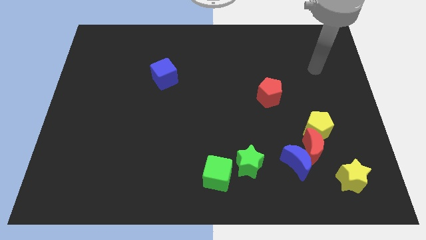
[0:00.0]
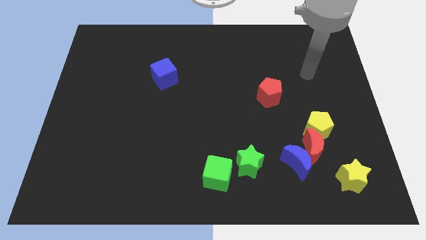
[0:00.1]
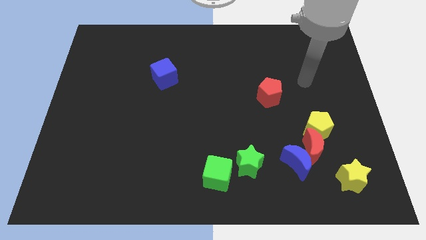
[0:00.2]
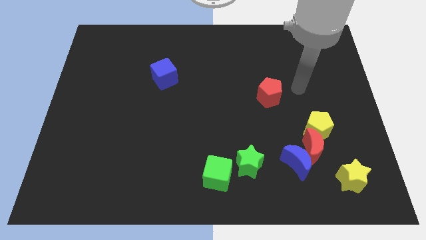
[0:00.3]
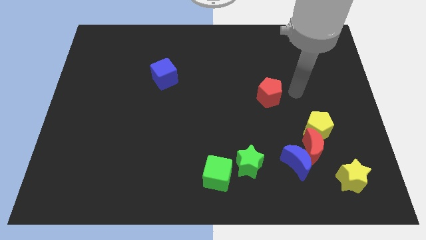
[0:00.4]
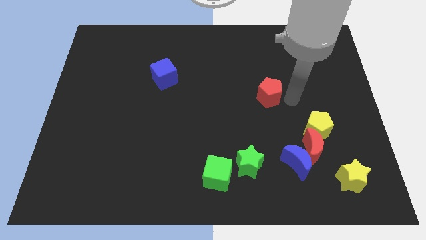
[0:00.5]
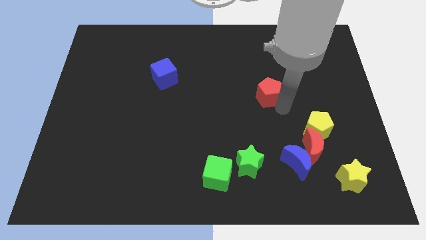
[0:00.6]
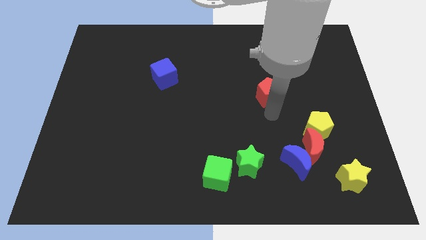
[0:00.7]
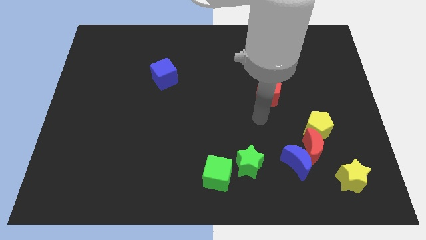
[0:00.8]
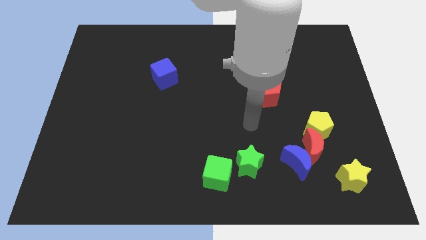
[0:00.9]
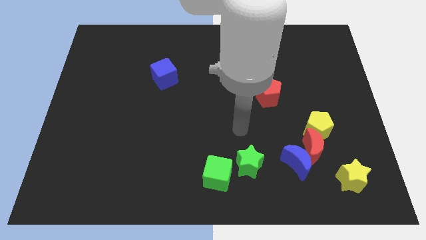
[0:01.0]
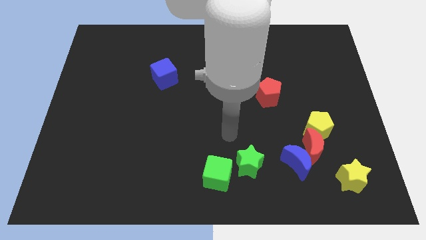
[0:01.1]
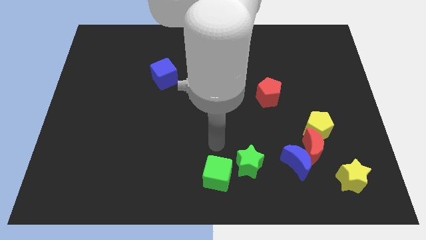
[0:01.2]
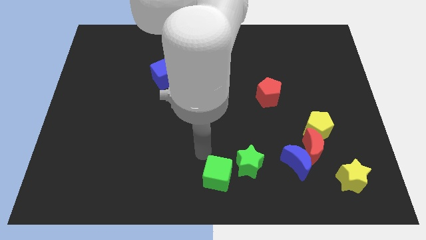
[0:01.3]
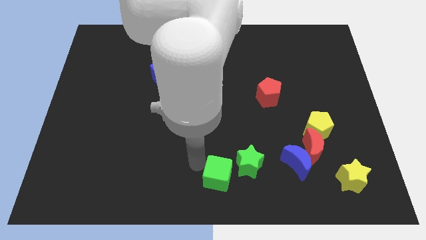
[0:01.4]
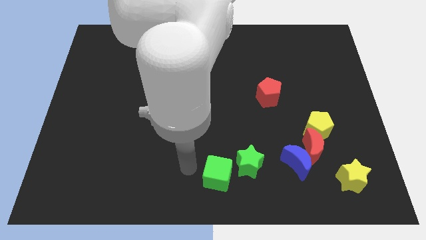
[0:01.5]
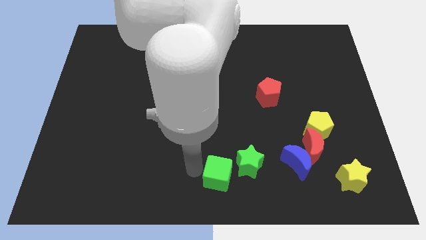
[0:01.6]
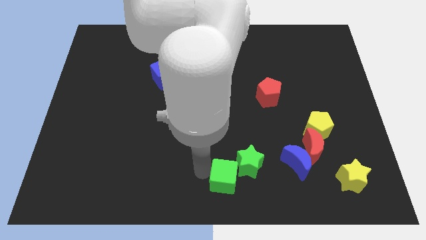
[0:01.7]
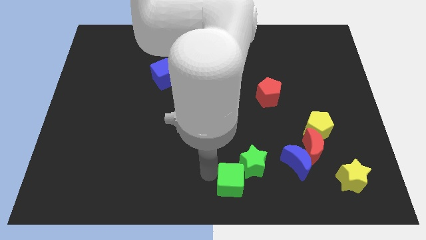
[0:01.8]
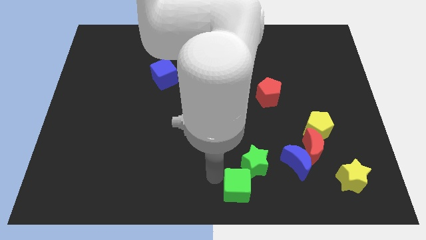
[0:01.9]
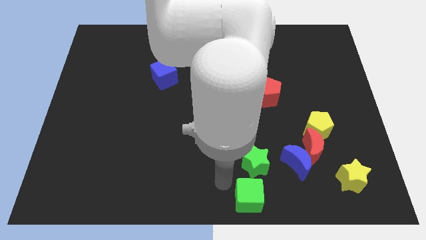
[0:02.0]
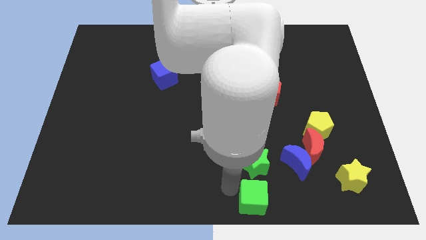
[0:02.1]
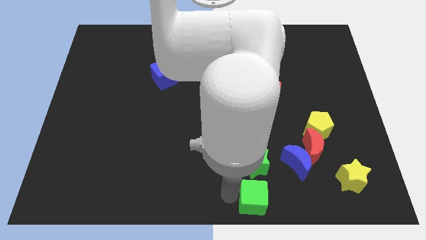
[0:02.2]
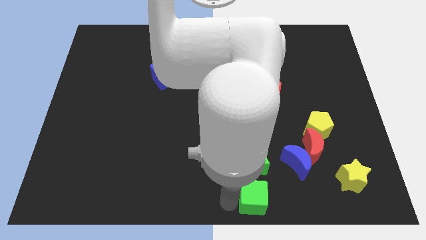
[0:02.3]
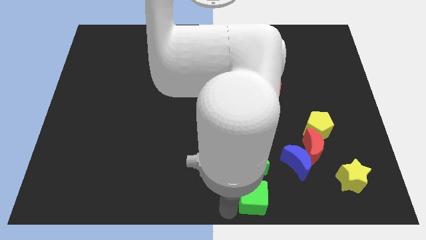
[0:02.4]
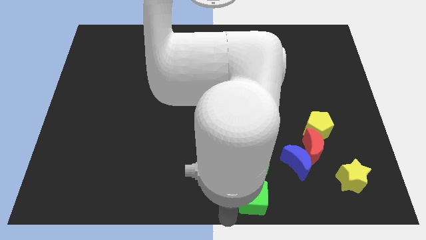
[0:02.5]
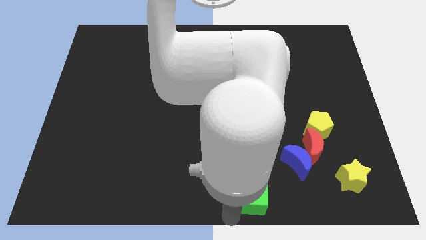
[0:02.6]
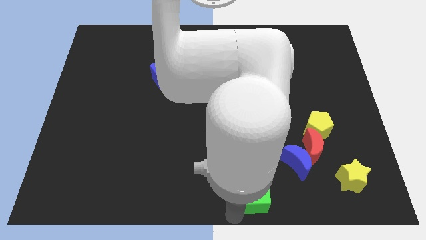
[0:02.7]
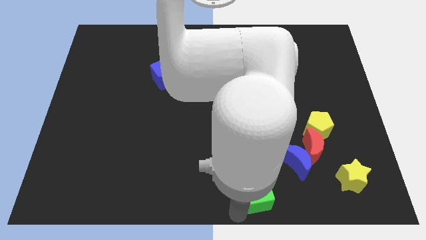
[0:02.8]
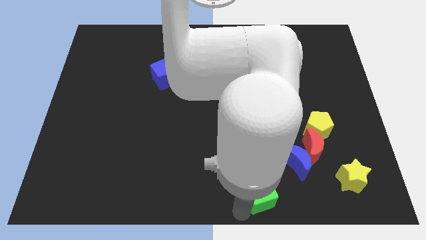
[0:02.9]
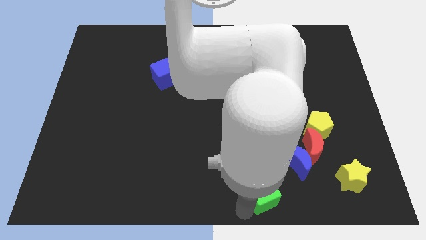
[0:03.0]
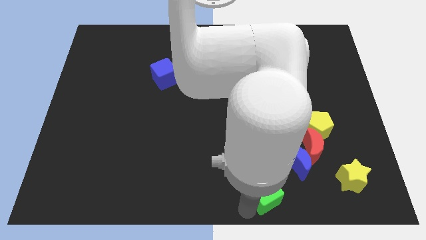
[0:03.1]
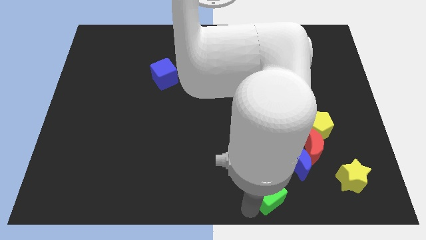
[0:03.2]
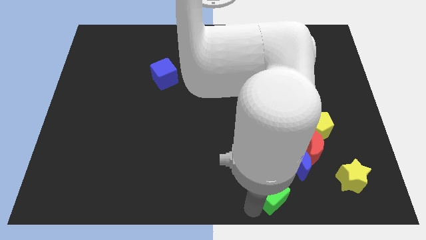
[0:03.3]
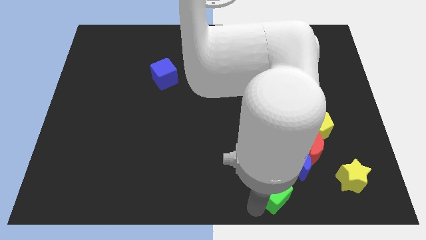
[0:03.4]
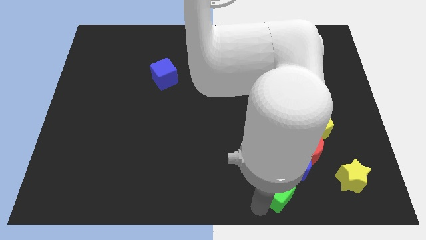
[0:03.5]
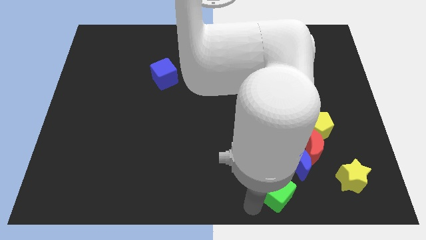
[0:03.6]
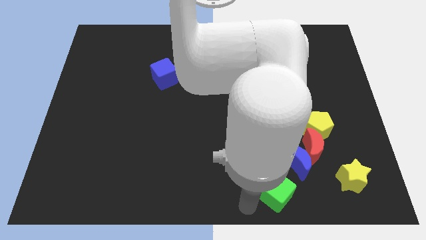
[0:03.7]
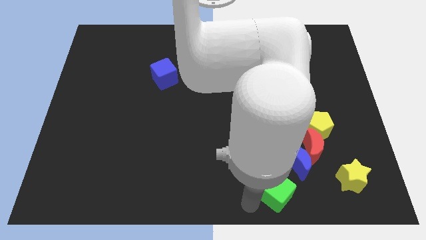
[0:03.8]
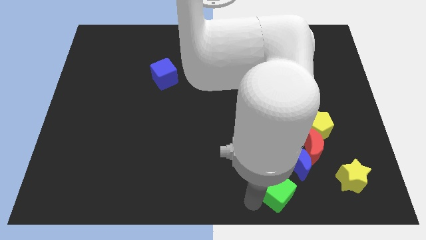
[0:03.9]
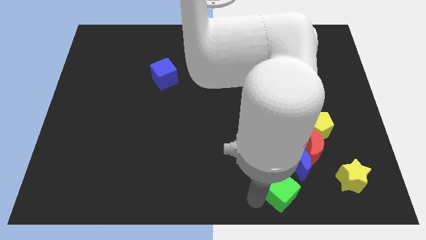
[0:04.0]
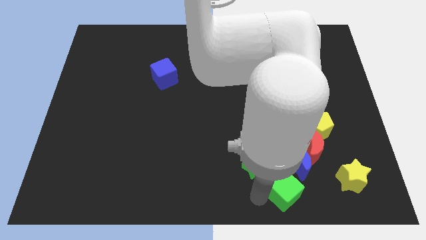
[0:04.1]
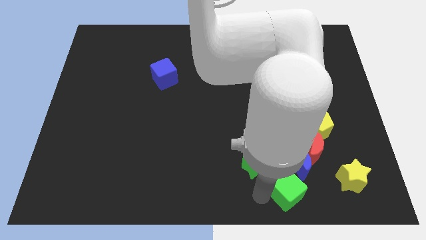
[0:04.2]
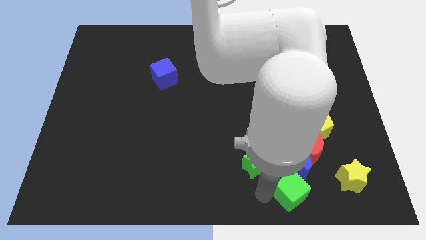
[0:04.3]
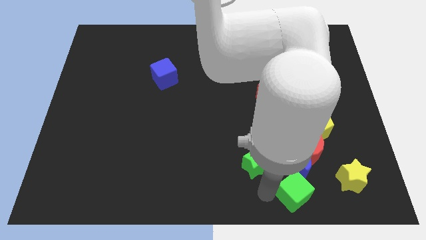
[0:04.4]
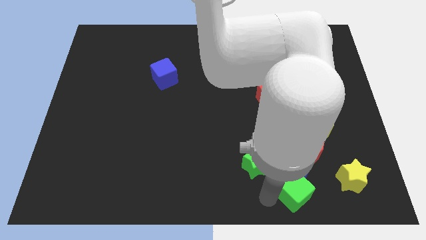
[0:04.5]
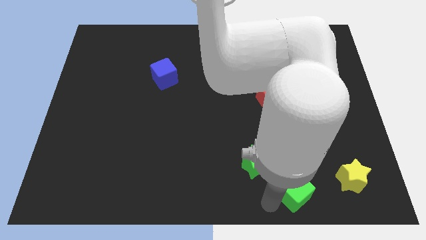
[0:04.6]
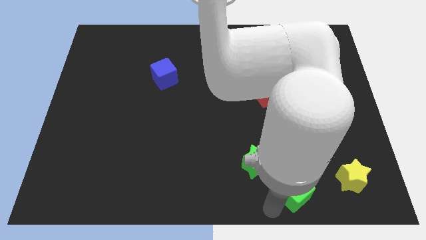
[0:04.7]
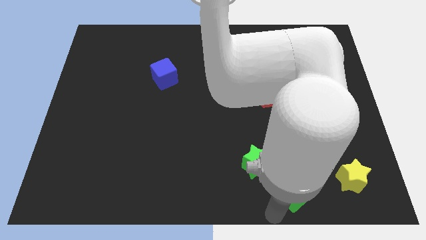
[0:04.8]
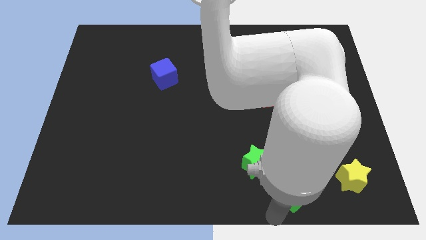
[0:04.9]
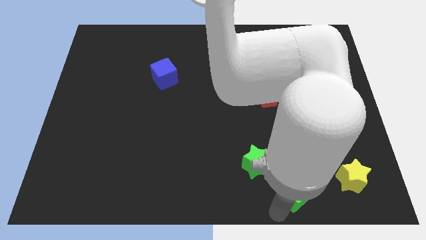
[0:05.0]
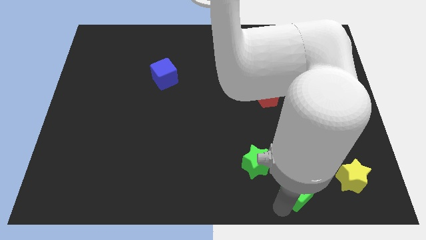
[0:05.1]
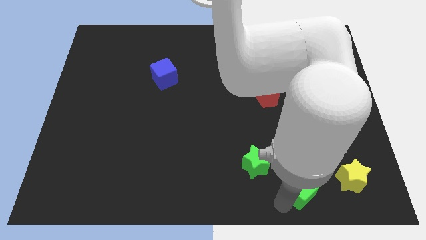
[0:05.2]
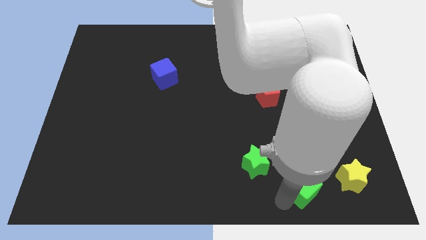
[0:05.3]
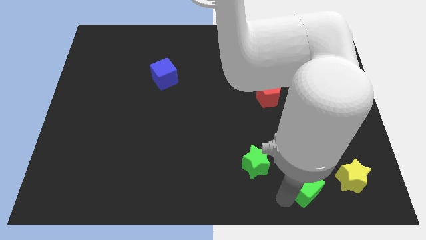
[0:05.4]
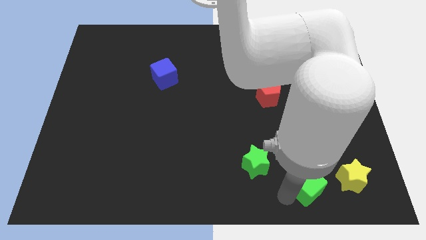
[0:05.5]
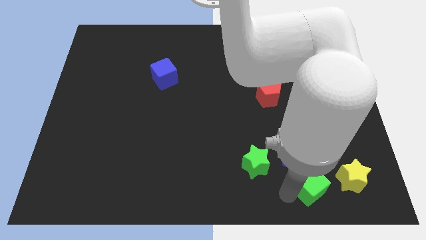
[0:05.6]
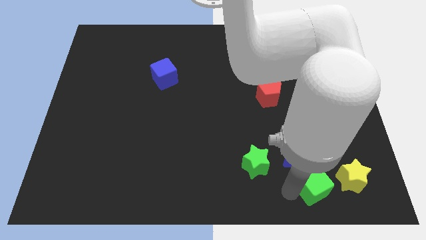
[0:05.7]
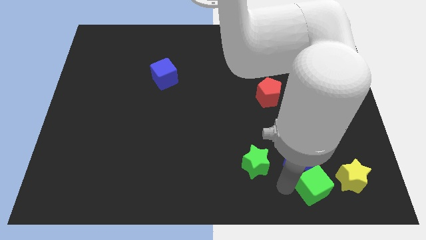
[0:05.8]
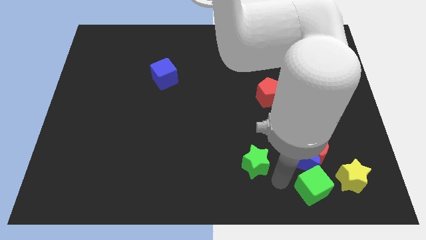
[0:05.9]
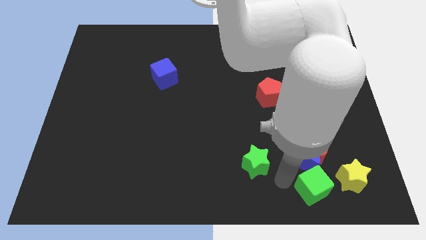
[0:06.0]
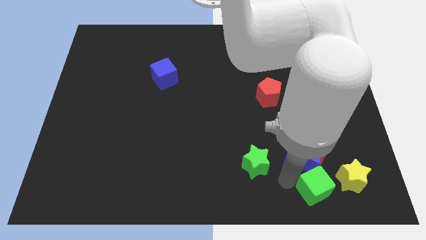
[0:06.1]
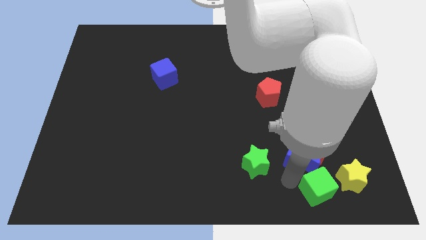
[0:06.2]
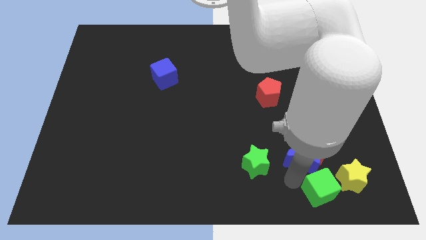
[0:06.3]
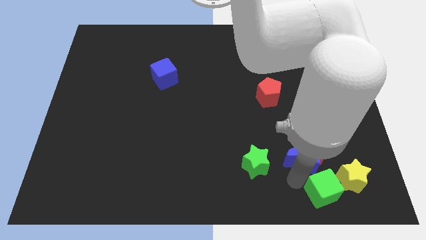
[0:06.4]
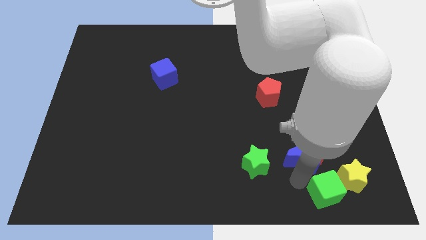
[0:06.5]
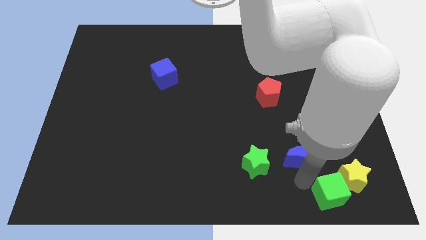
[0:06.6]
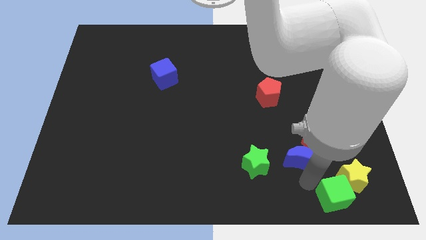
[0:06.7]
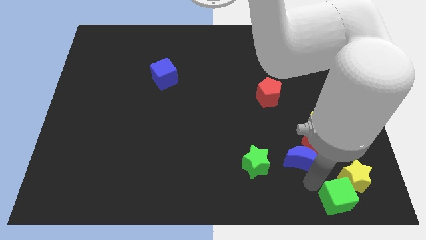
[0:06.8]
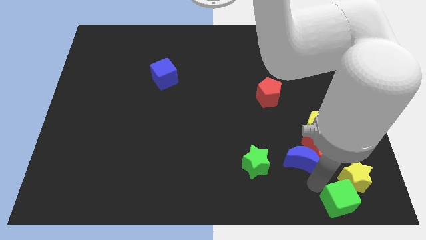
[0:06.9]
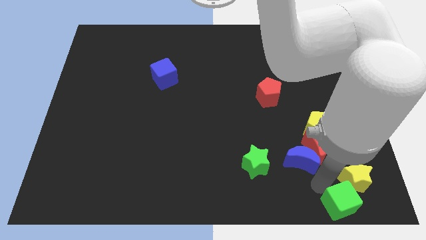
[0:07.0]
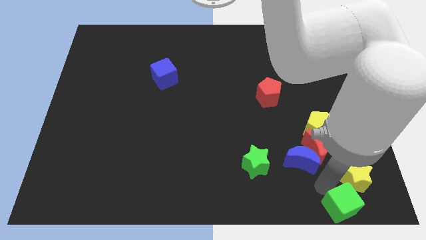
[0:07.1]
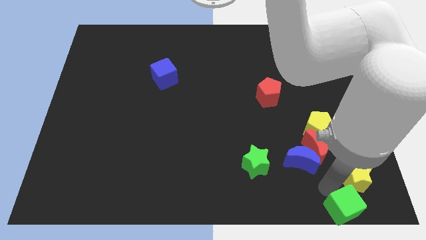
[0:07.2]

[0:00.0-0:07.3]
move the green cube to the lower right corner

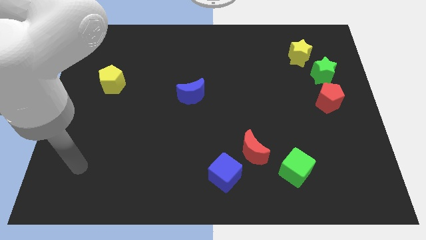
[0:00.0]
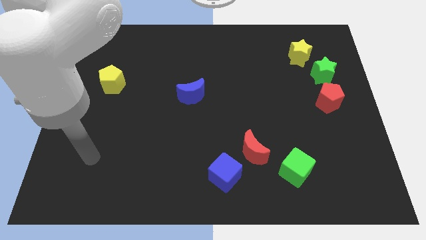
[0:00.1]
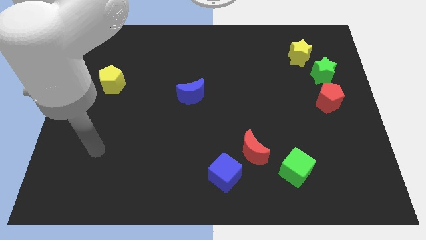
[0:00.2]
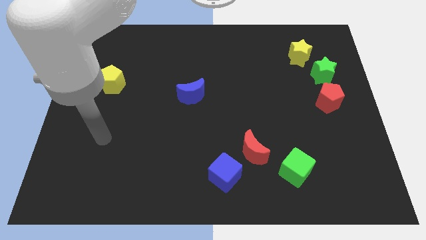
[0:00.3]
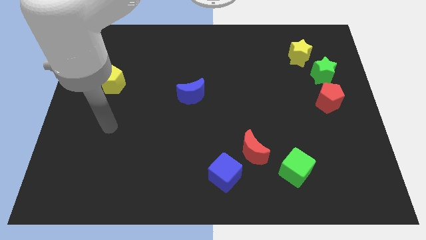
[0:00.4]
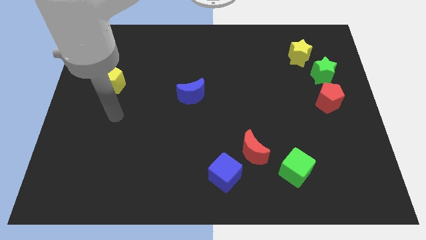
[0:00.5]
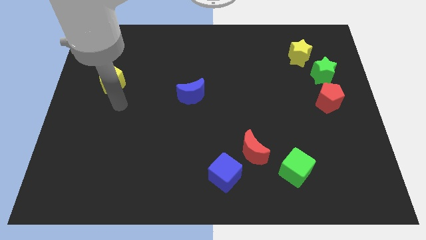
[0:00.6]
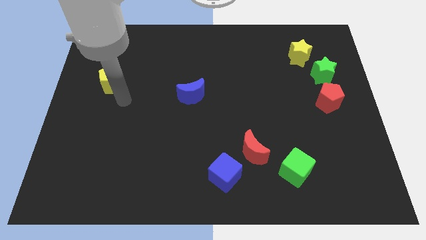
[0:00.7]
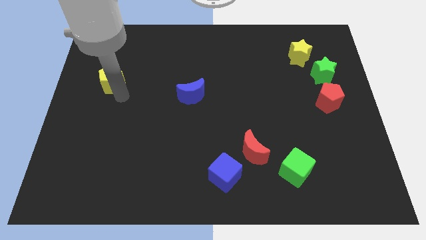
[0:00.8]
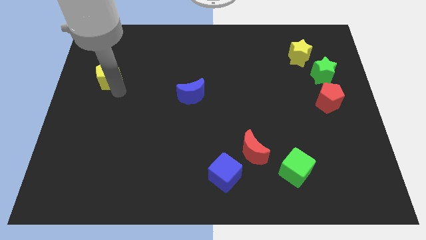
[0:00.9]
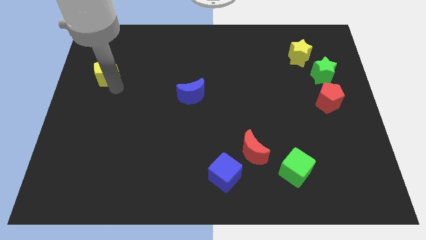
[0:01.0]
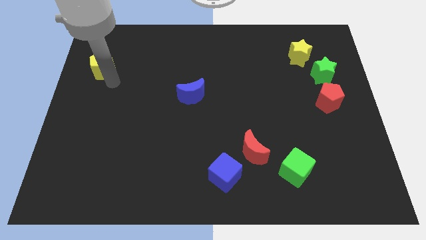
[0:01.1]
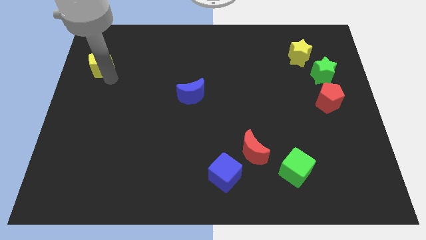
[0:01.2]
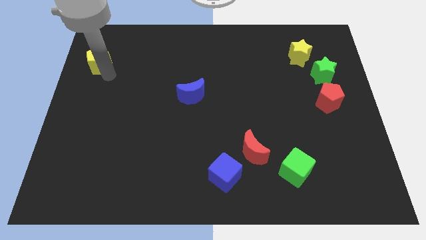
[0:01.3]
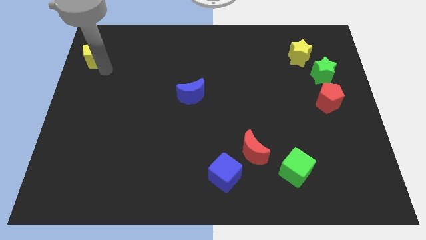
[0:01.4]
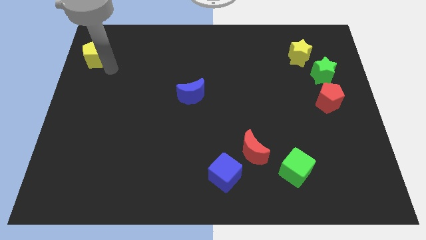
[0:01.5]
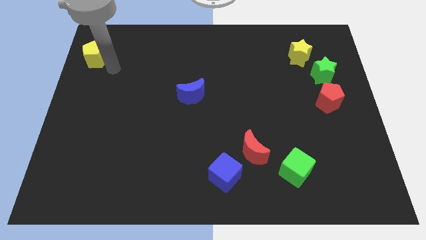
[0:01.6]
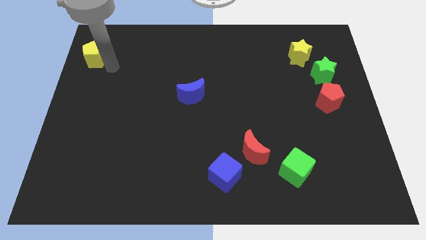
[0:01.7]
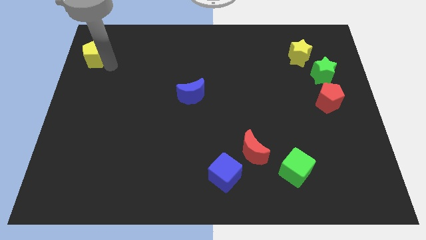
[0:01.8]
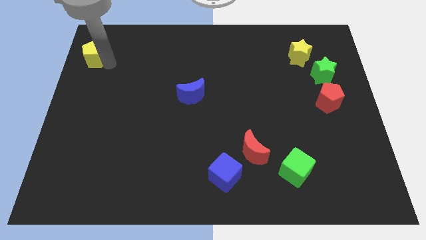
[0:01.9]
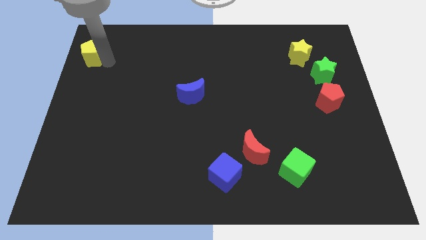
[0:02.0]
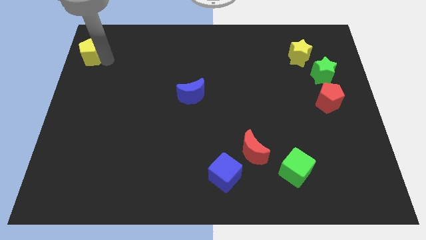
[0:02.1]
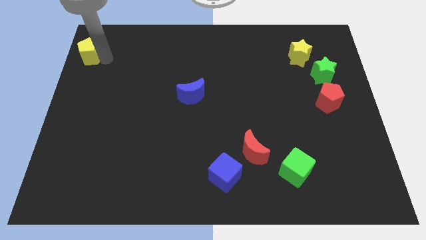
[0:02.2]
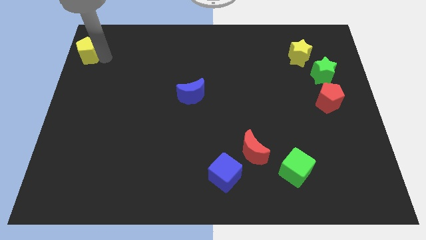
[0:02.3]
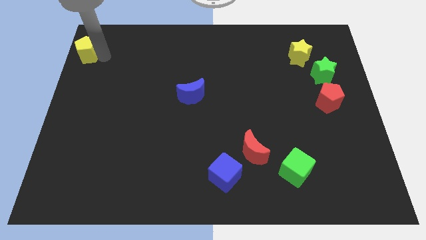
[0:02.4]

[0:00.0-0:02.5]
move the yellow pentagon to the top left
